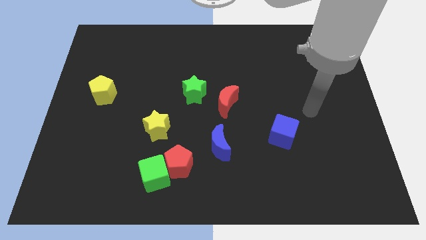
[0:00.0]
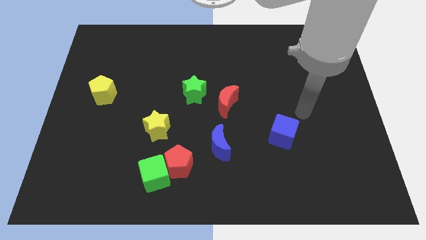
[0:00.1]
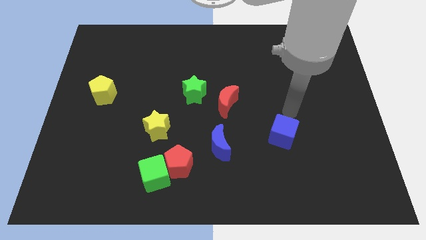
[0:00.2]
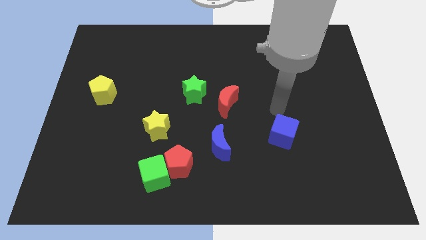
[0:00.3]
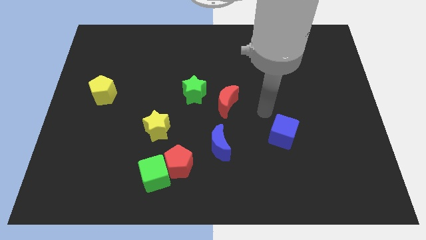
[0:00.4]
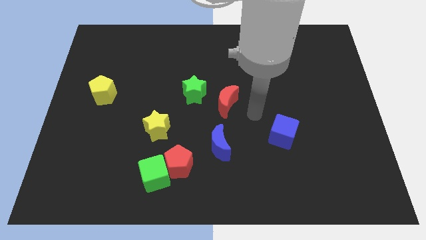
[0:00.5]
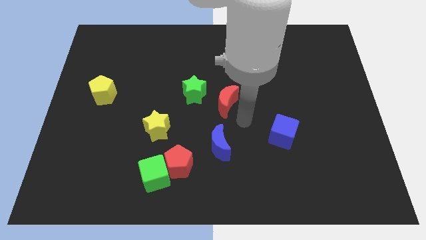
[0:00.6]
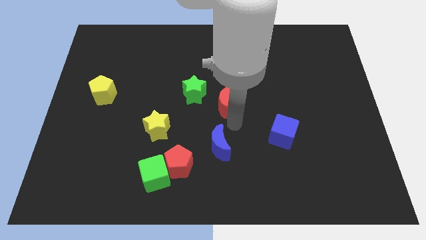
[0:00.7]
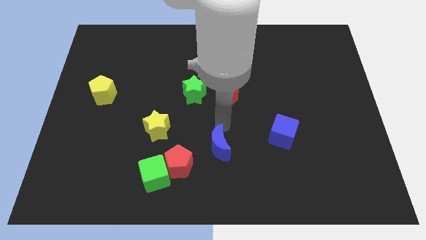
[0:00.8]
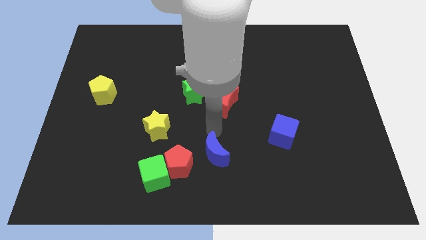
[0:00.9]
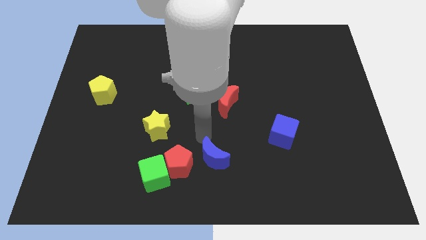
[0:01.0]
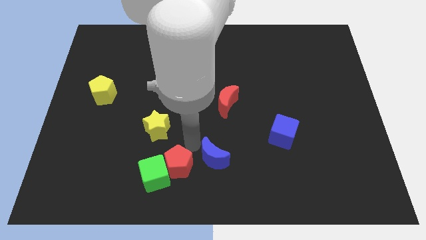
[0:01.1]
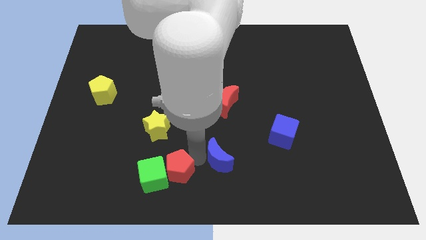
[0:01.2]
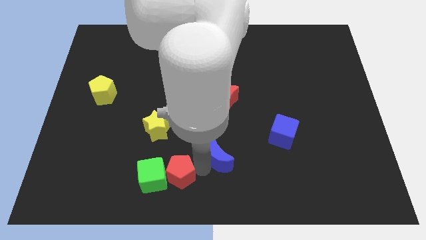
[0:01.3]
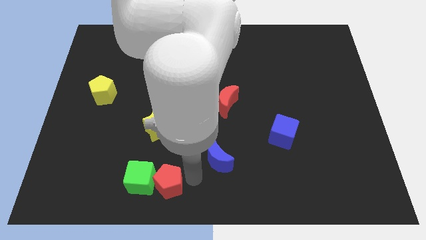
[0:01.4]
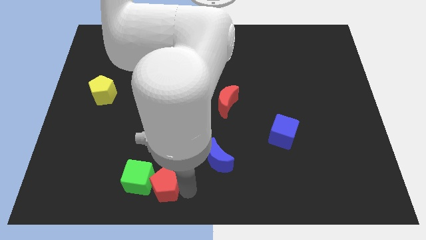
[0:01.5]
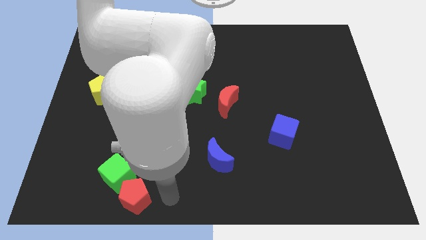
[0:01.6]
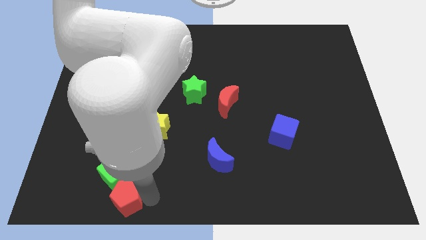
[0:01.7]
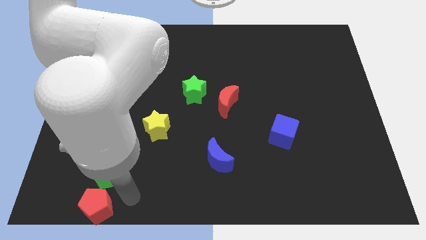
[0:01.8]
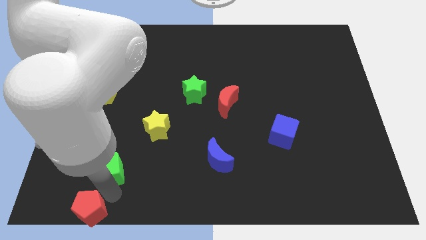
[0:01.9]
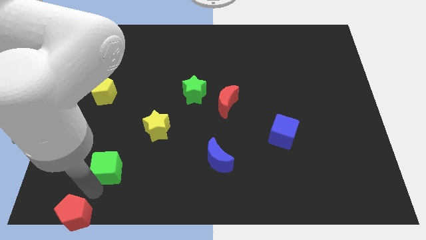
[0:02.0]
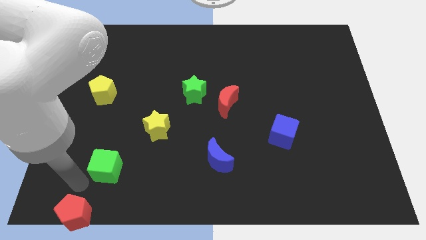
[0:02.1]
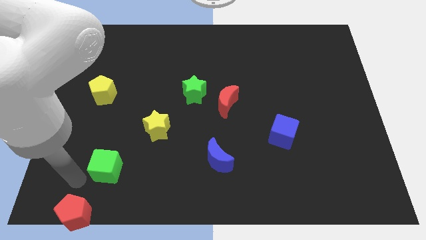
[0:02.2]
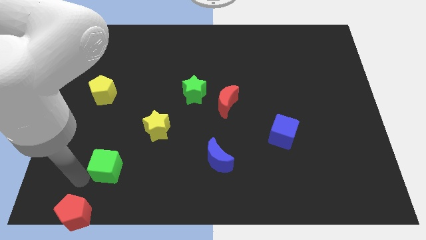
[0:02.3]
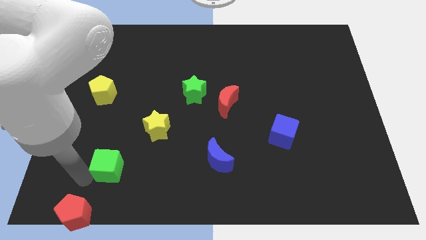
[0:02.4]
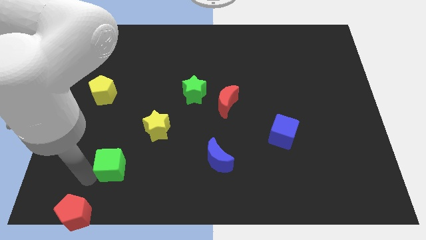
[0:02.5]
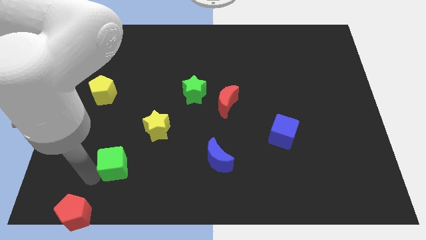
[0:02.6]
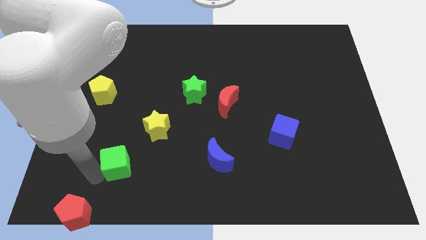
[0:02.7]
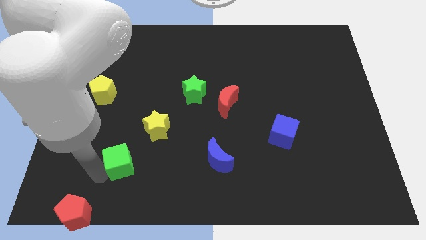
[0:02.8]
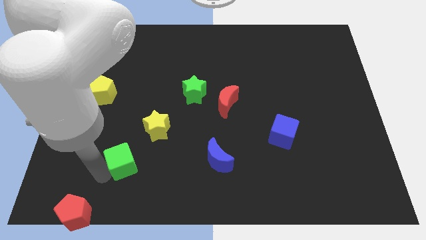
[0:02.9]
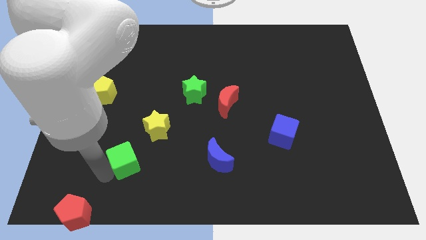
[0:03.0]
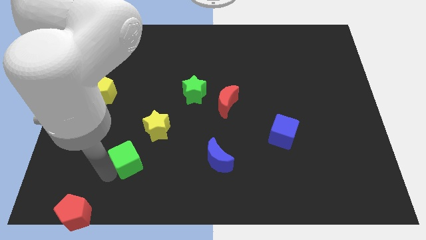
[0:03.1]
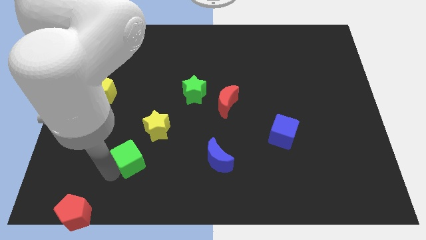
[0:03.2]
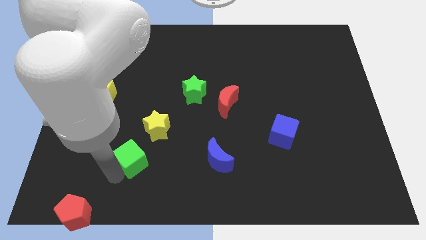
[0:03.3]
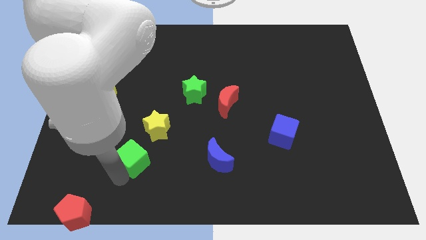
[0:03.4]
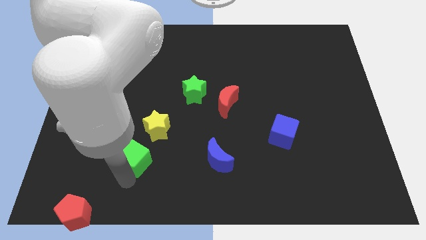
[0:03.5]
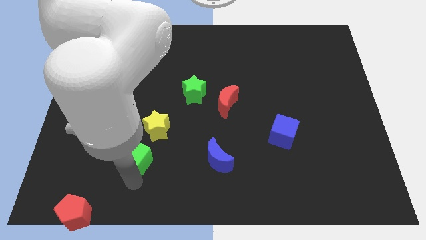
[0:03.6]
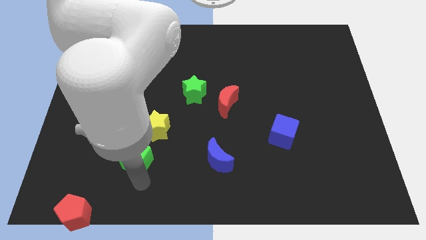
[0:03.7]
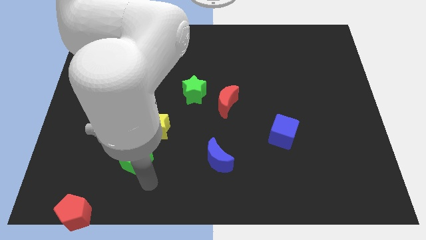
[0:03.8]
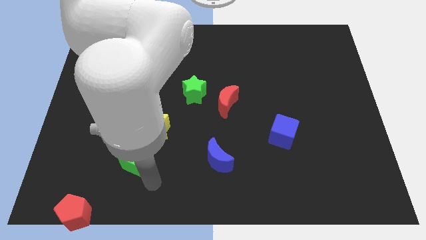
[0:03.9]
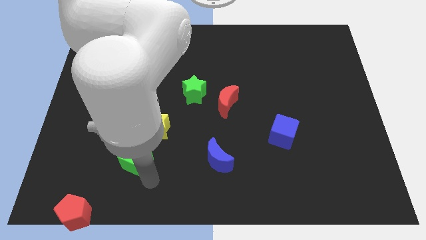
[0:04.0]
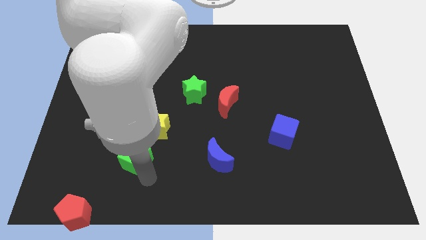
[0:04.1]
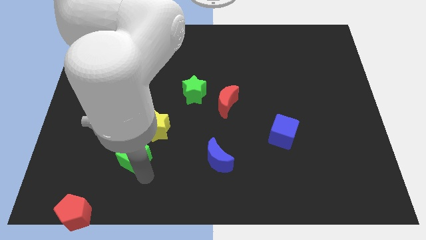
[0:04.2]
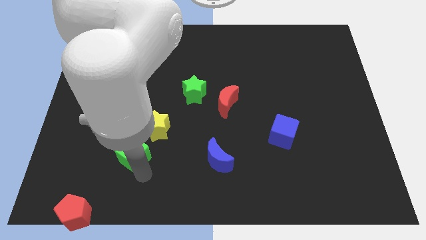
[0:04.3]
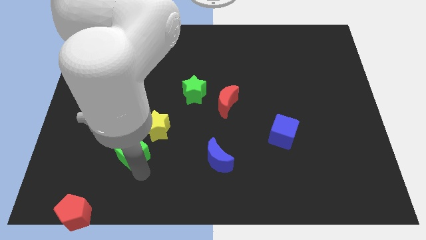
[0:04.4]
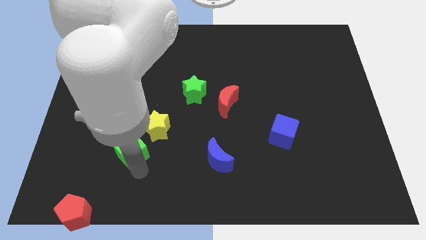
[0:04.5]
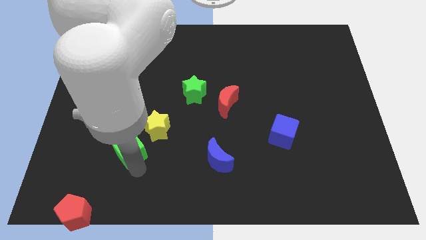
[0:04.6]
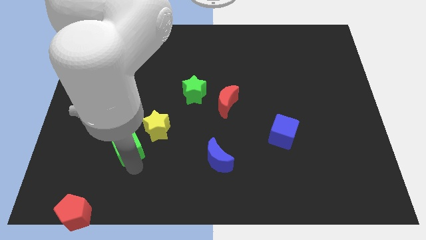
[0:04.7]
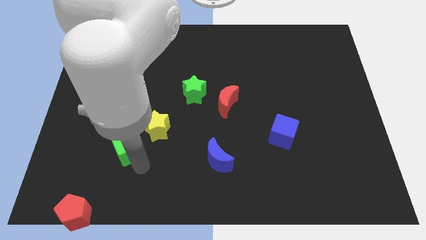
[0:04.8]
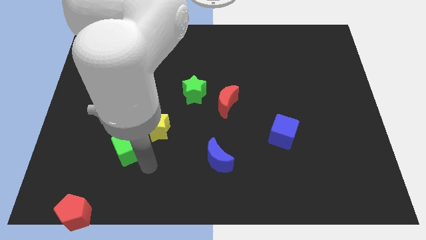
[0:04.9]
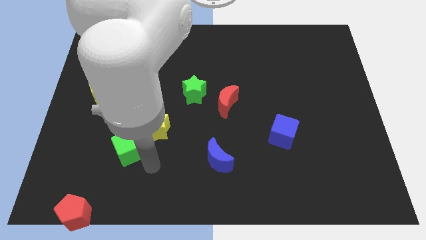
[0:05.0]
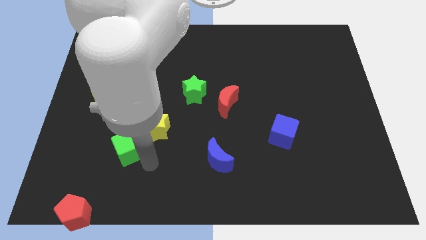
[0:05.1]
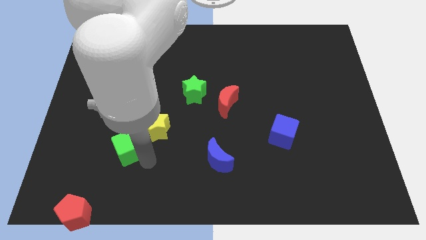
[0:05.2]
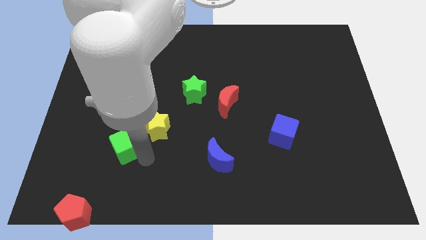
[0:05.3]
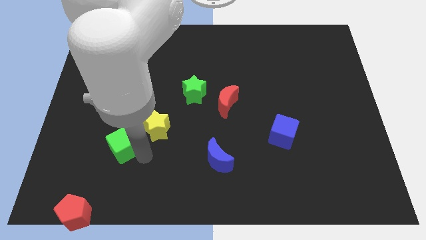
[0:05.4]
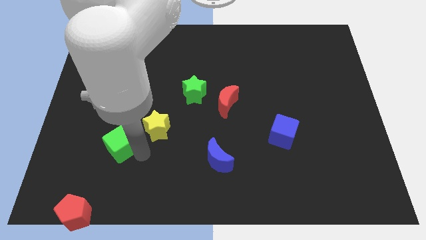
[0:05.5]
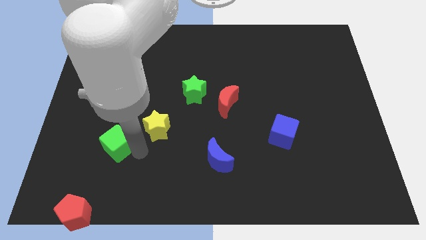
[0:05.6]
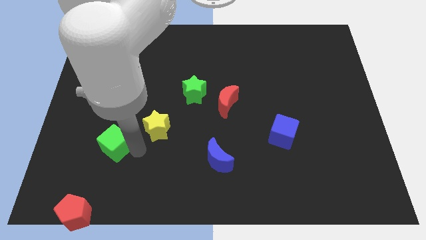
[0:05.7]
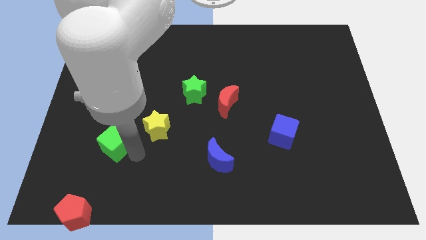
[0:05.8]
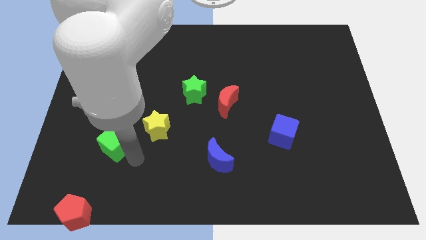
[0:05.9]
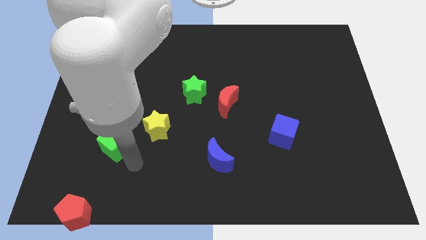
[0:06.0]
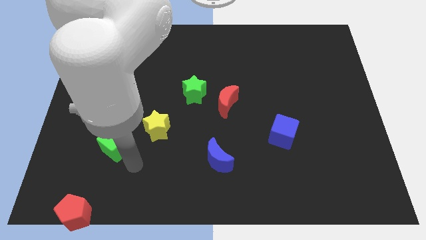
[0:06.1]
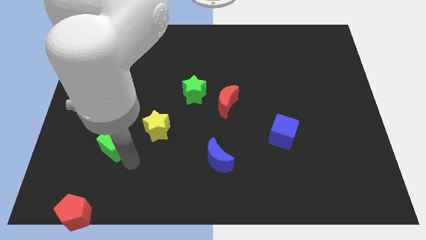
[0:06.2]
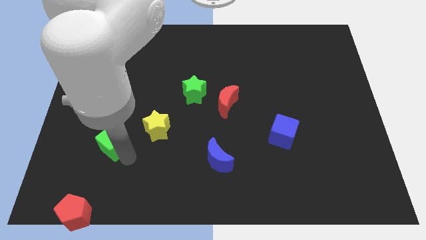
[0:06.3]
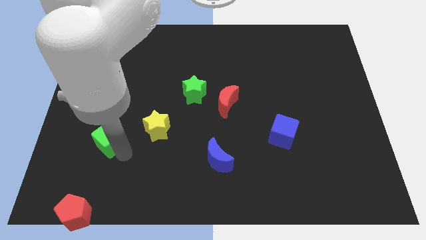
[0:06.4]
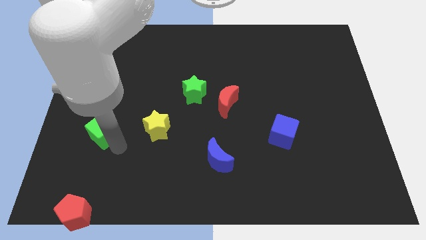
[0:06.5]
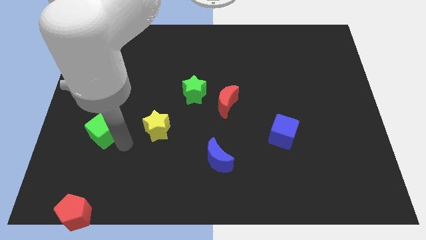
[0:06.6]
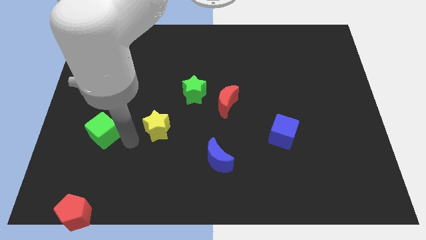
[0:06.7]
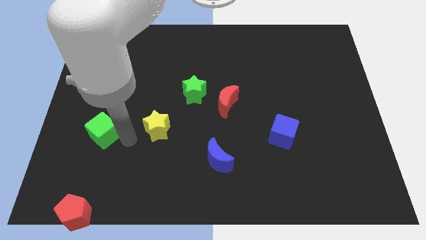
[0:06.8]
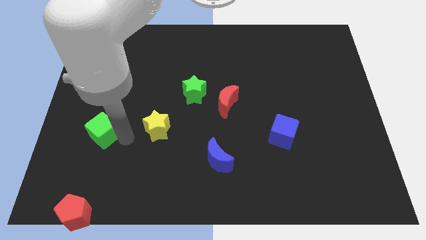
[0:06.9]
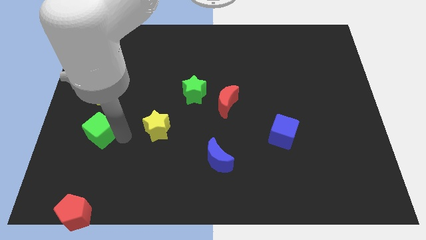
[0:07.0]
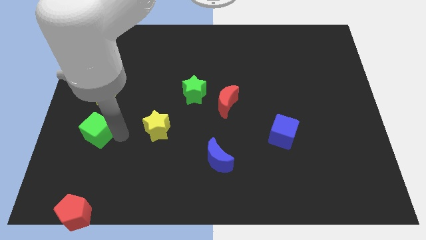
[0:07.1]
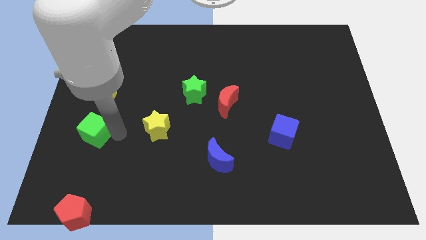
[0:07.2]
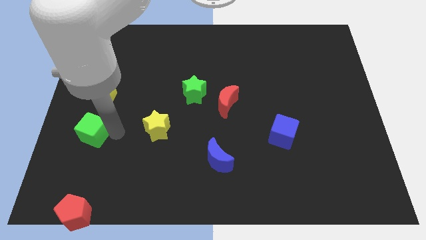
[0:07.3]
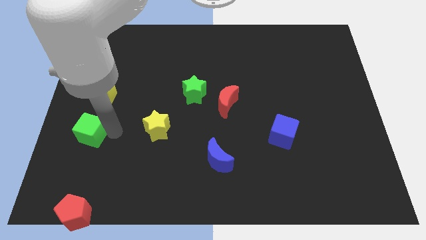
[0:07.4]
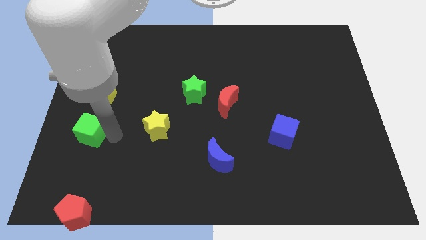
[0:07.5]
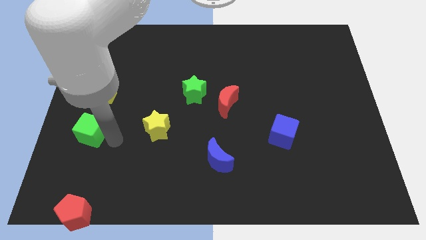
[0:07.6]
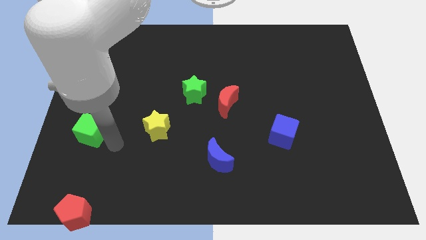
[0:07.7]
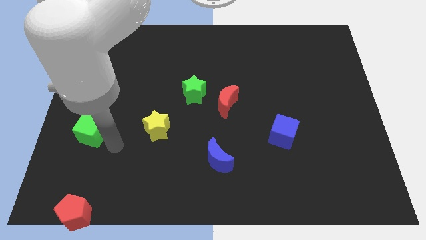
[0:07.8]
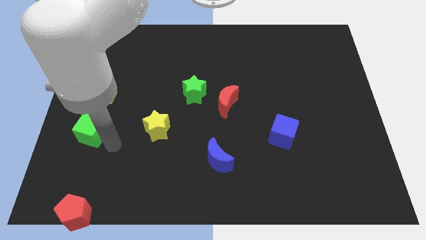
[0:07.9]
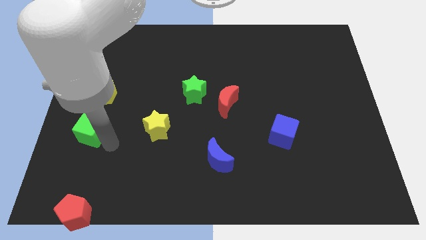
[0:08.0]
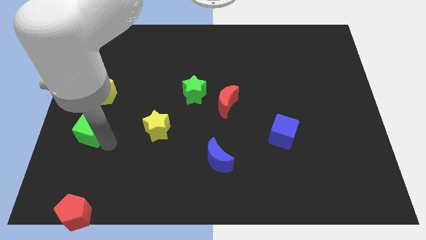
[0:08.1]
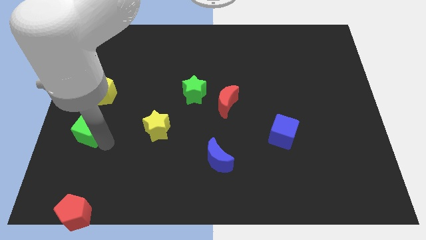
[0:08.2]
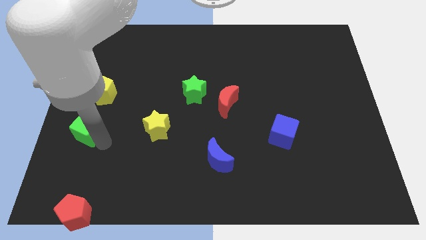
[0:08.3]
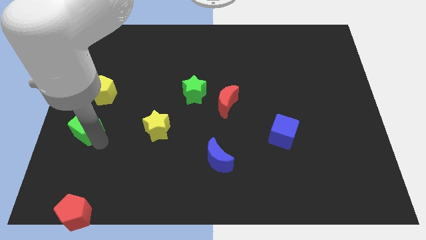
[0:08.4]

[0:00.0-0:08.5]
put the green cube to the left side
